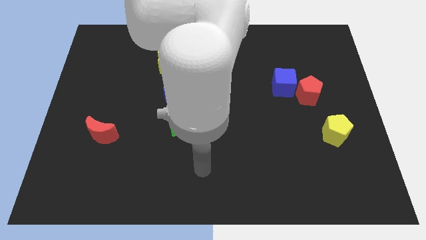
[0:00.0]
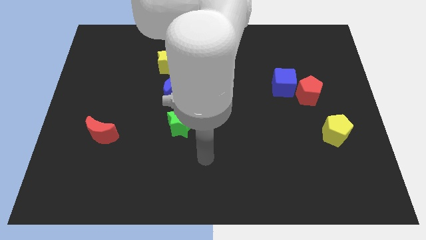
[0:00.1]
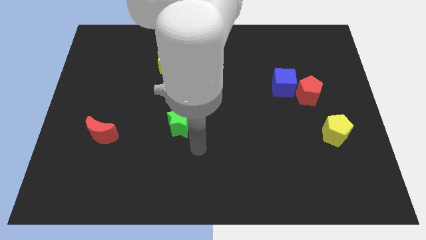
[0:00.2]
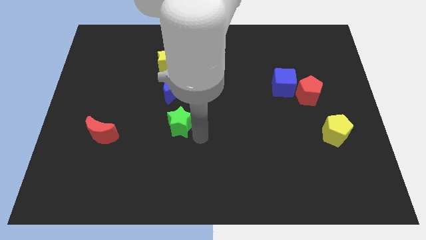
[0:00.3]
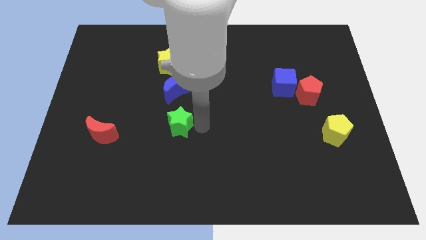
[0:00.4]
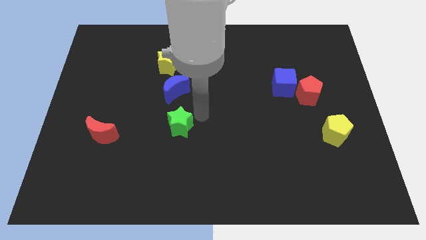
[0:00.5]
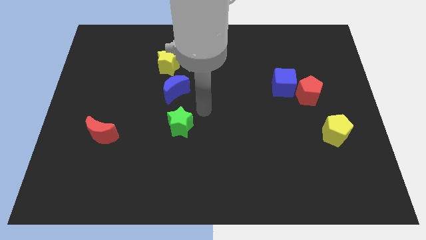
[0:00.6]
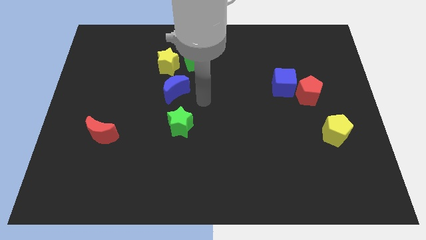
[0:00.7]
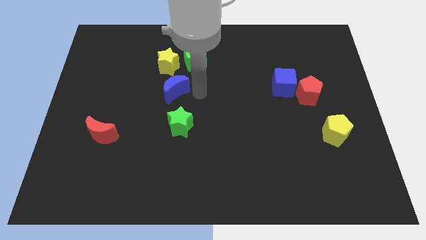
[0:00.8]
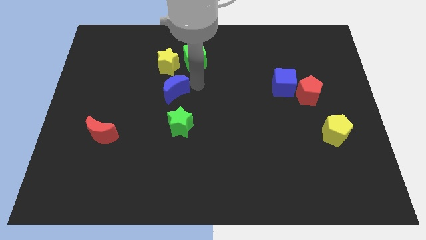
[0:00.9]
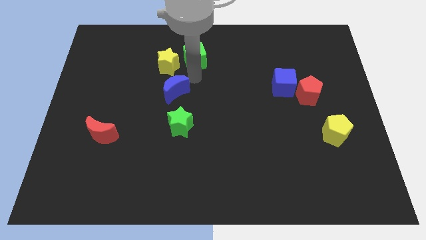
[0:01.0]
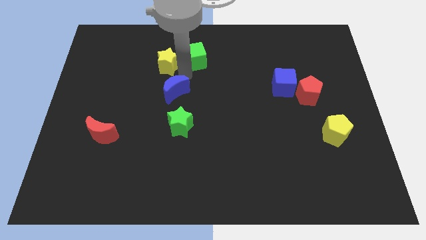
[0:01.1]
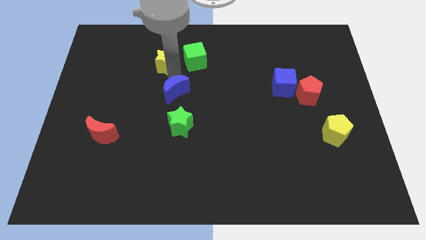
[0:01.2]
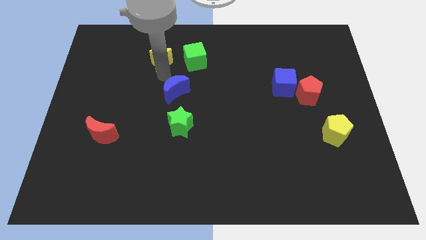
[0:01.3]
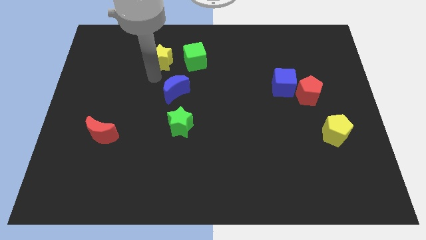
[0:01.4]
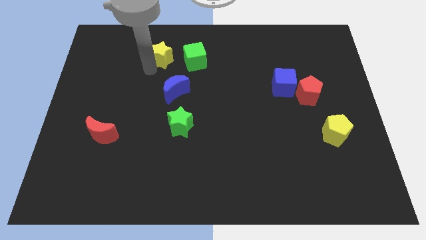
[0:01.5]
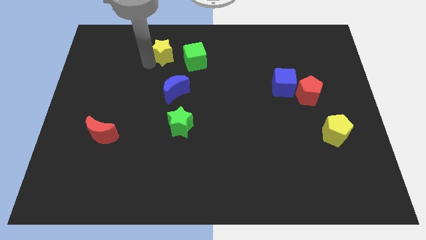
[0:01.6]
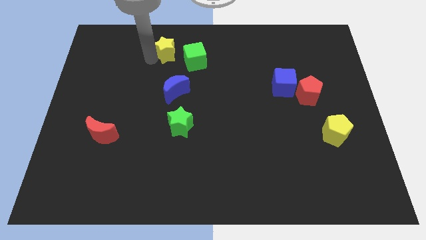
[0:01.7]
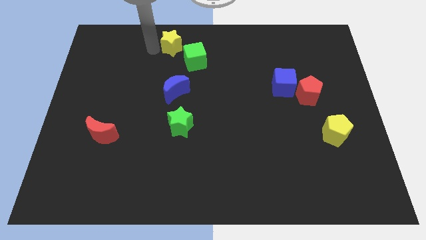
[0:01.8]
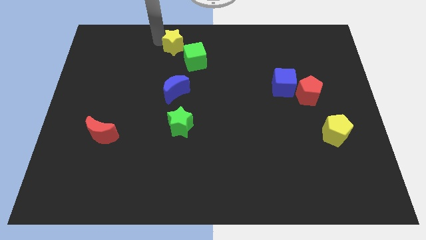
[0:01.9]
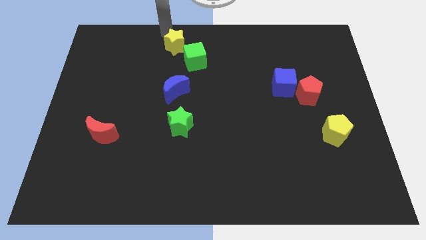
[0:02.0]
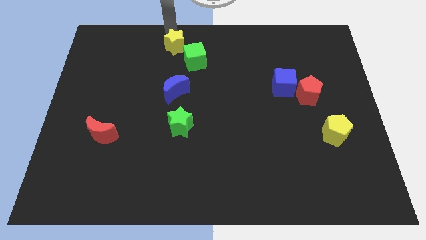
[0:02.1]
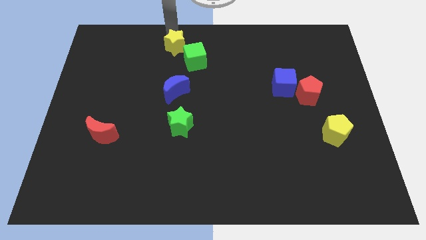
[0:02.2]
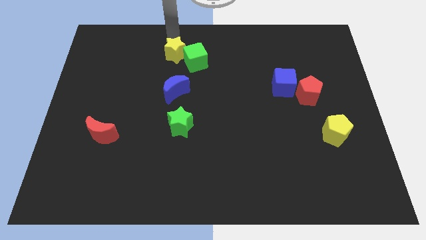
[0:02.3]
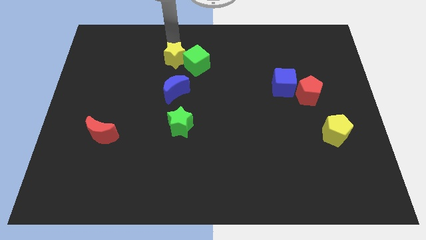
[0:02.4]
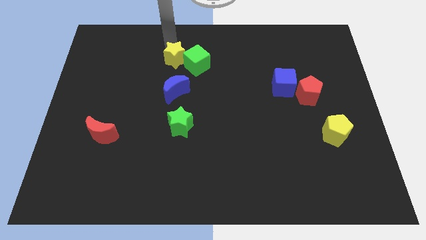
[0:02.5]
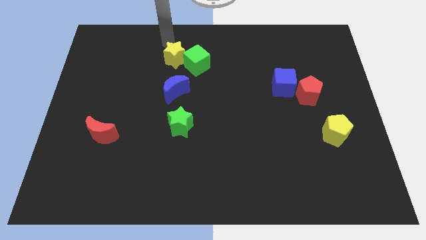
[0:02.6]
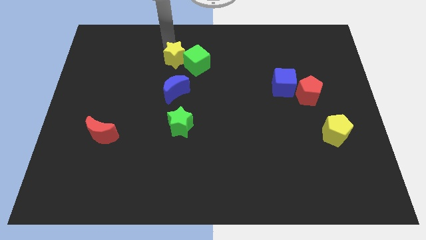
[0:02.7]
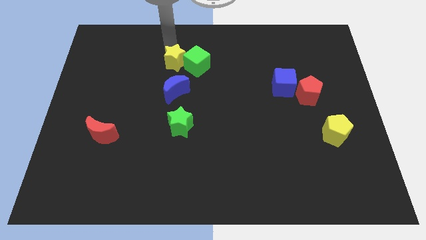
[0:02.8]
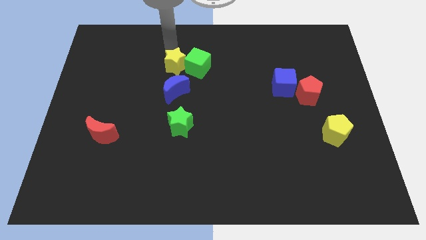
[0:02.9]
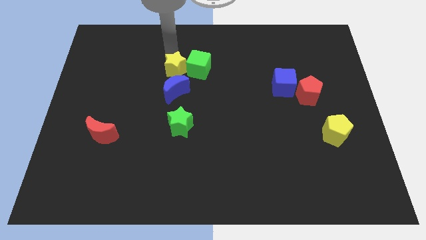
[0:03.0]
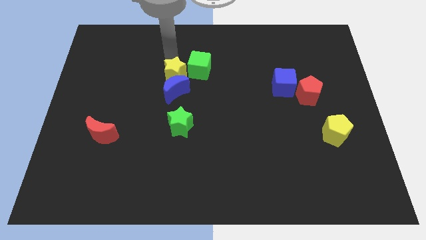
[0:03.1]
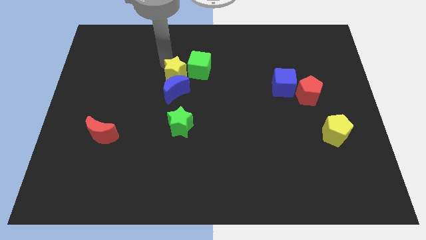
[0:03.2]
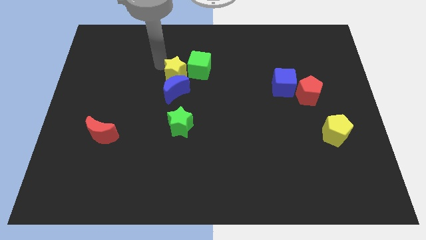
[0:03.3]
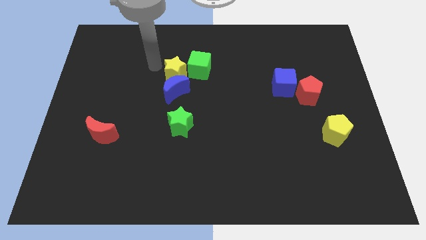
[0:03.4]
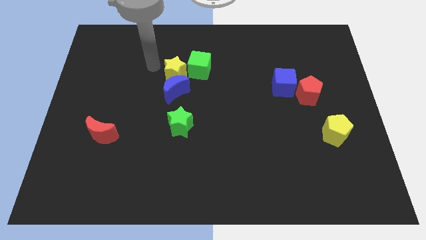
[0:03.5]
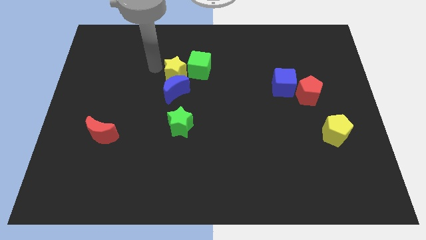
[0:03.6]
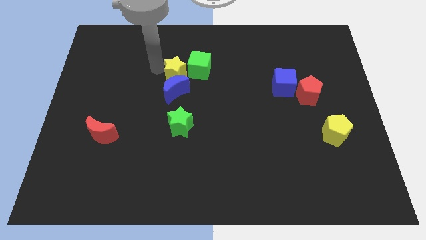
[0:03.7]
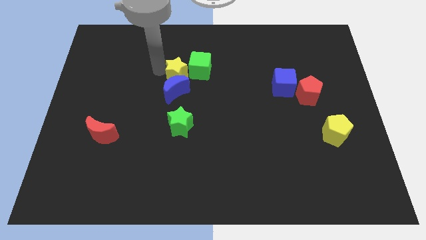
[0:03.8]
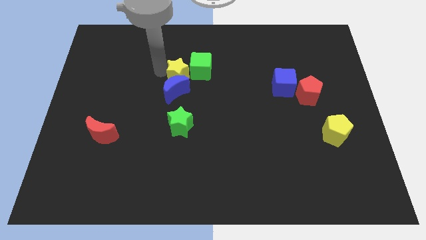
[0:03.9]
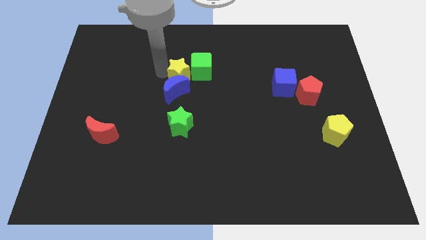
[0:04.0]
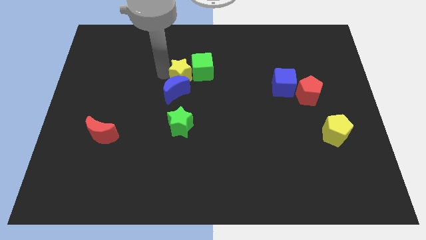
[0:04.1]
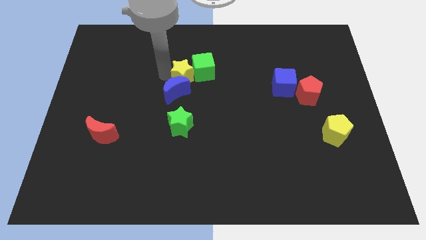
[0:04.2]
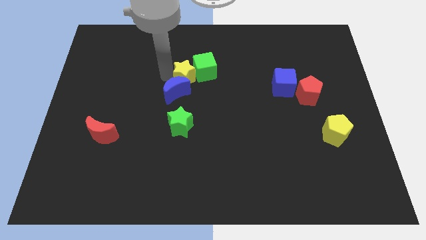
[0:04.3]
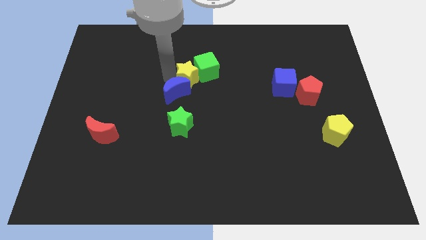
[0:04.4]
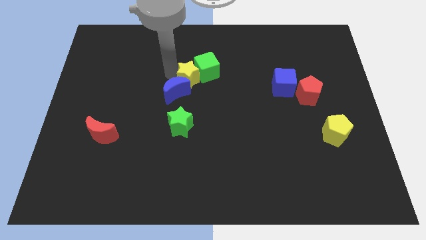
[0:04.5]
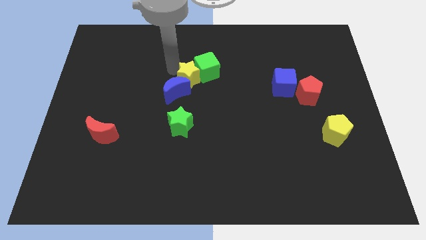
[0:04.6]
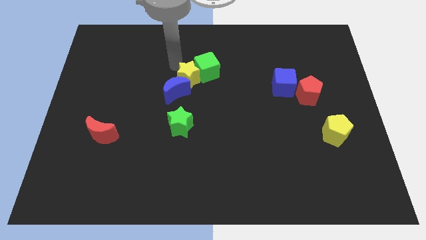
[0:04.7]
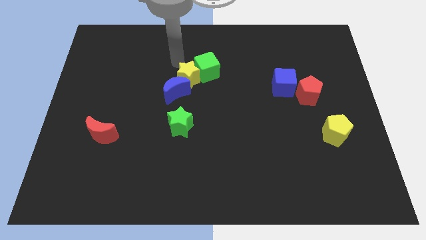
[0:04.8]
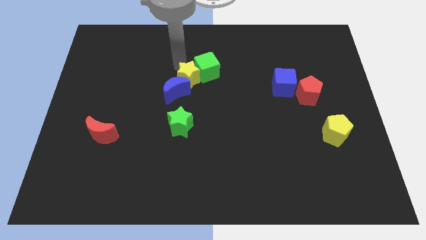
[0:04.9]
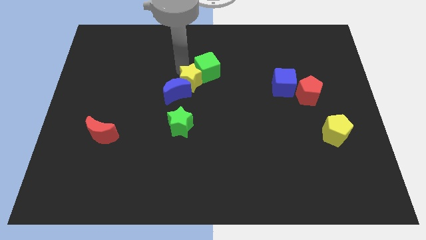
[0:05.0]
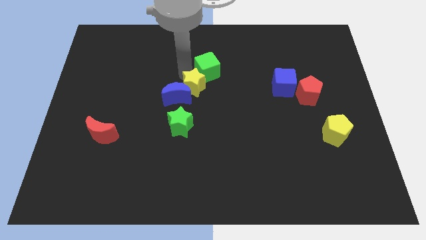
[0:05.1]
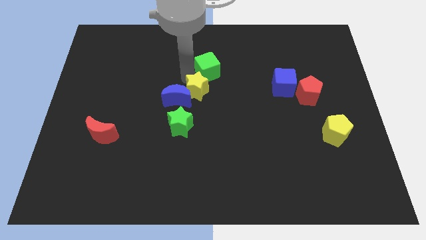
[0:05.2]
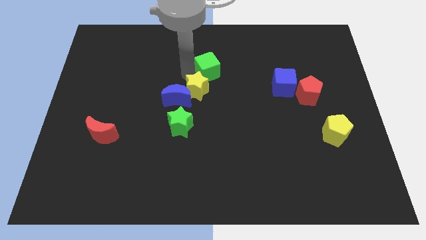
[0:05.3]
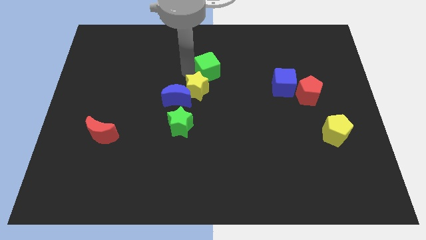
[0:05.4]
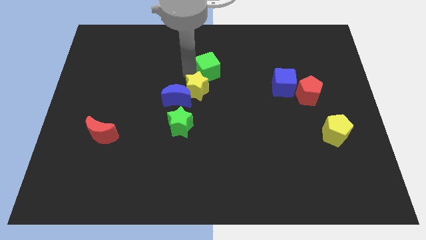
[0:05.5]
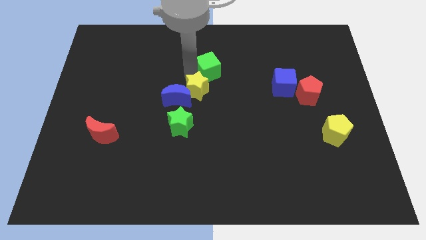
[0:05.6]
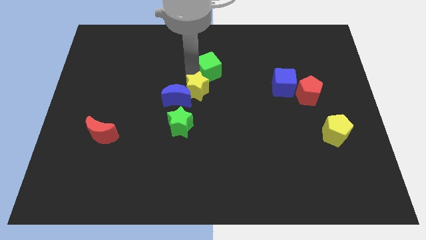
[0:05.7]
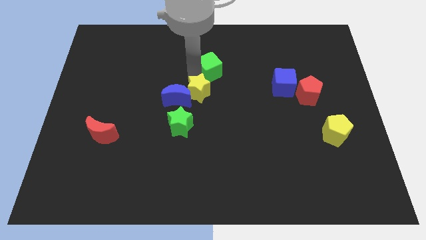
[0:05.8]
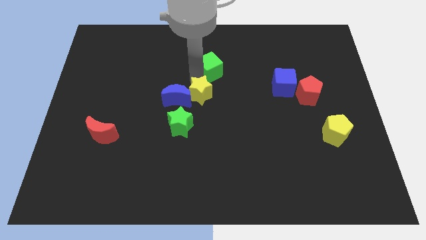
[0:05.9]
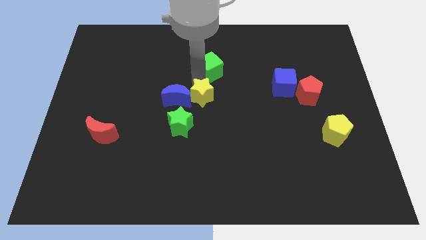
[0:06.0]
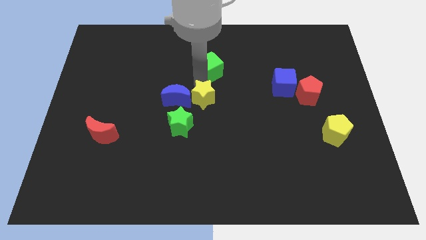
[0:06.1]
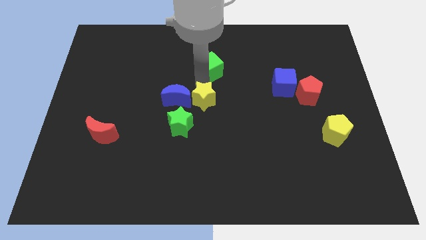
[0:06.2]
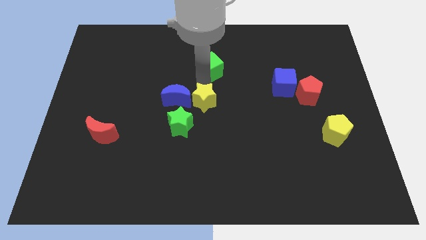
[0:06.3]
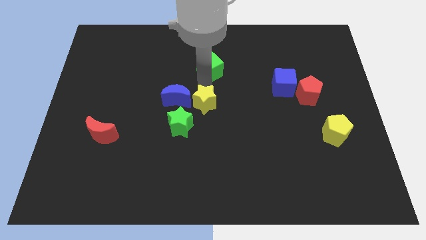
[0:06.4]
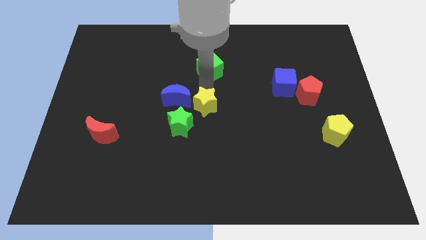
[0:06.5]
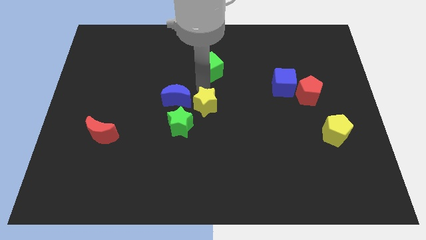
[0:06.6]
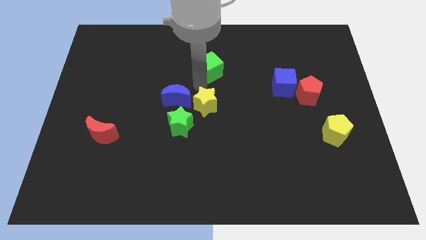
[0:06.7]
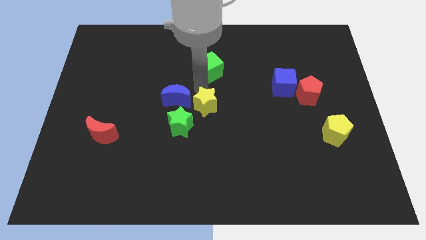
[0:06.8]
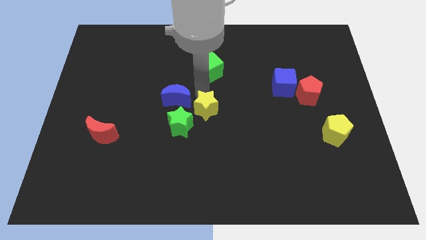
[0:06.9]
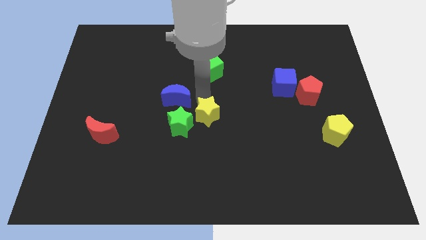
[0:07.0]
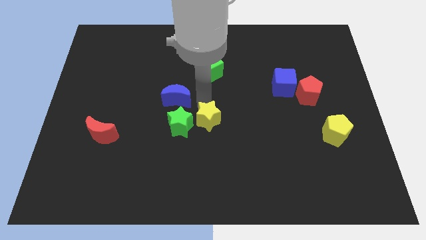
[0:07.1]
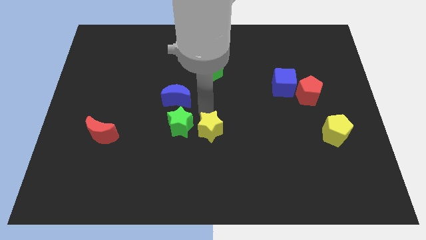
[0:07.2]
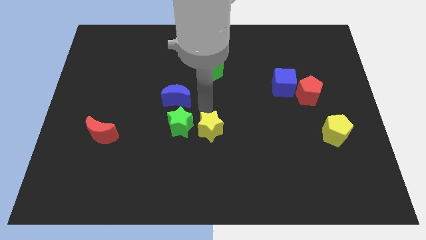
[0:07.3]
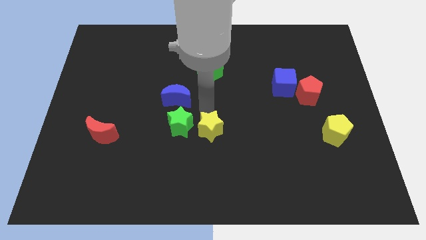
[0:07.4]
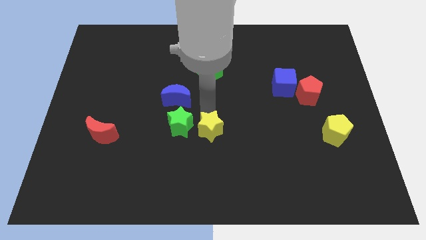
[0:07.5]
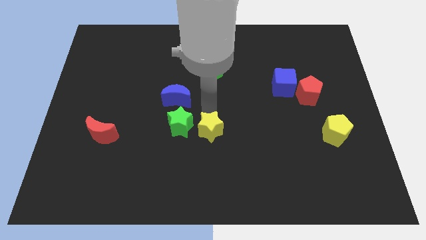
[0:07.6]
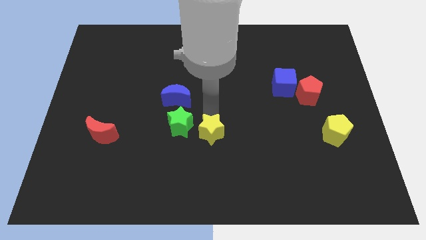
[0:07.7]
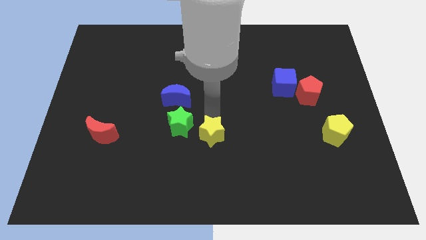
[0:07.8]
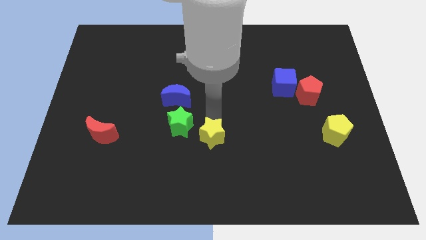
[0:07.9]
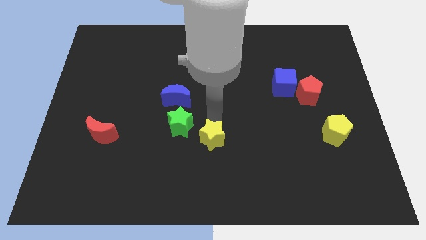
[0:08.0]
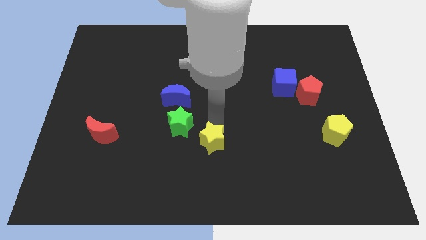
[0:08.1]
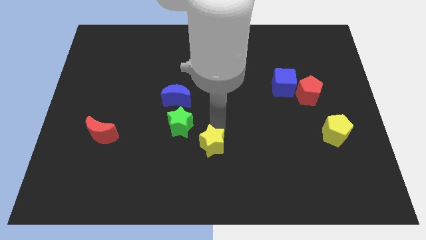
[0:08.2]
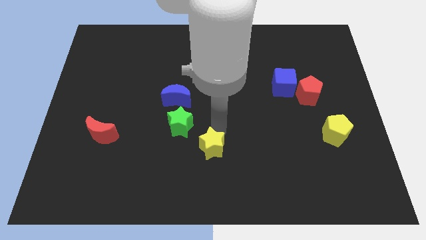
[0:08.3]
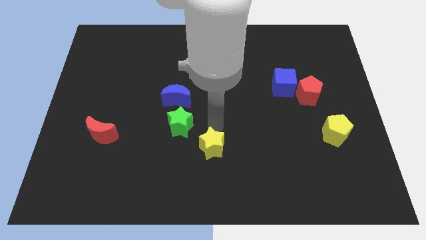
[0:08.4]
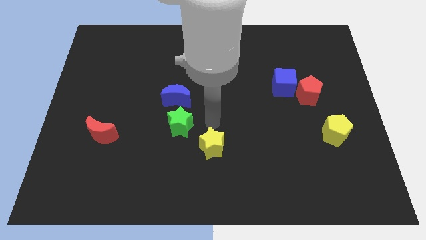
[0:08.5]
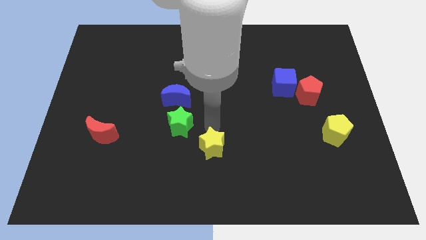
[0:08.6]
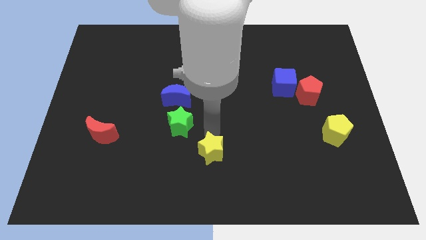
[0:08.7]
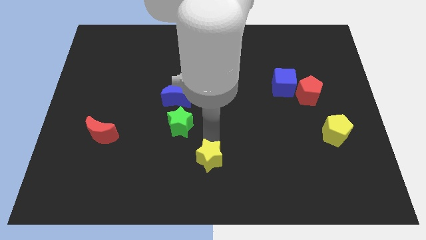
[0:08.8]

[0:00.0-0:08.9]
slide the yellow star to the bottom
